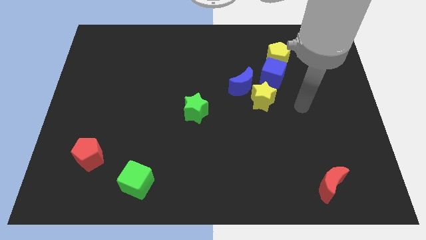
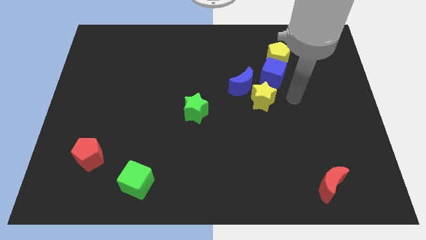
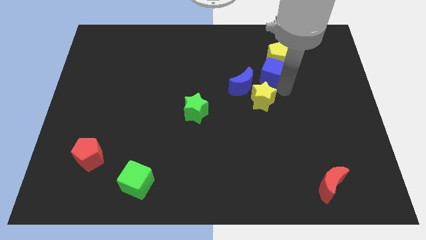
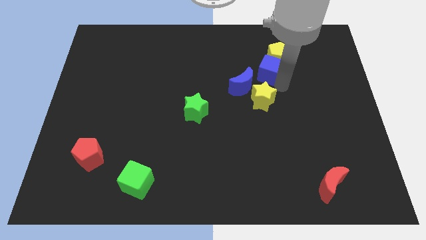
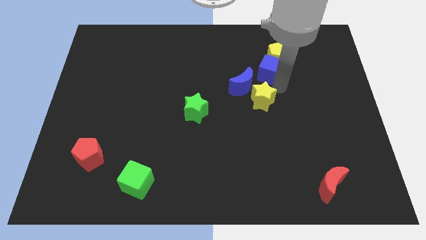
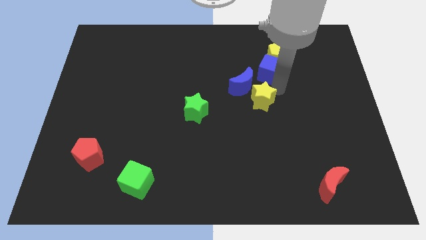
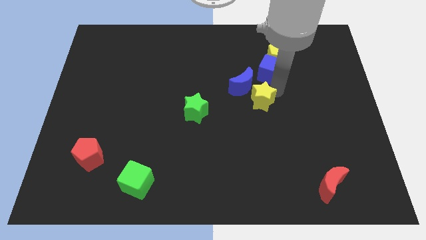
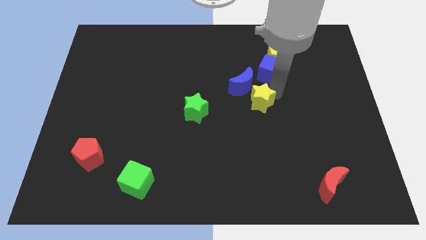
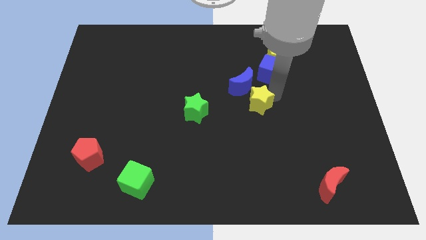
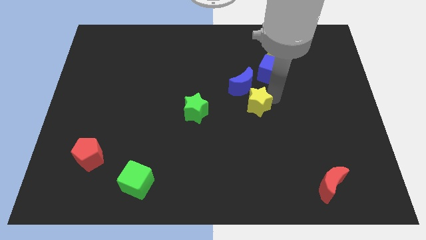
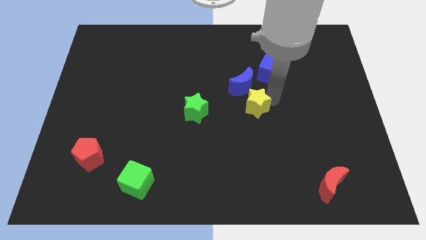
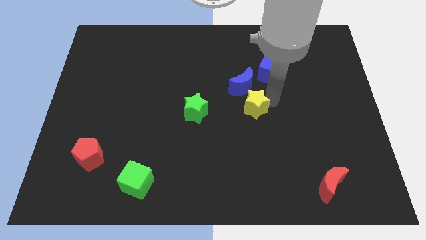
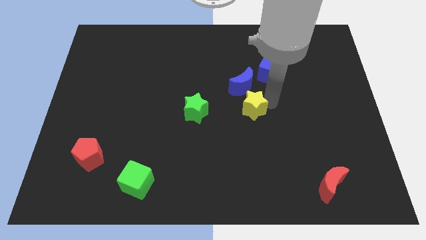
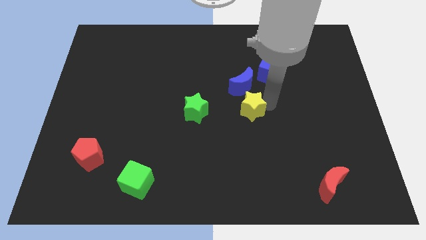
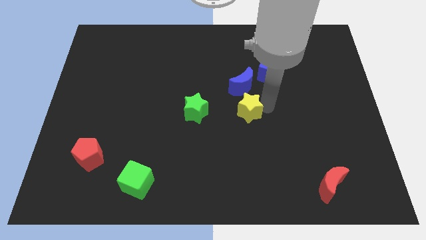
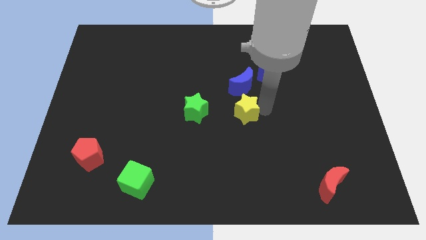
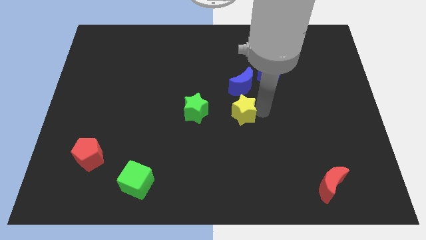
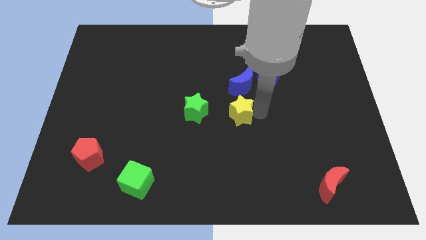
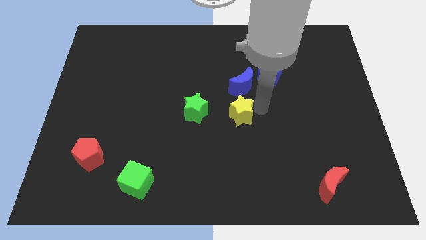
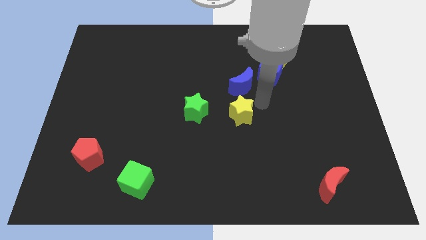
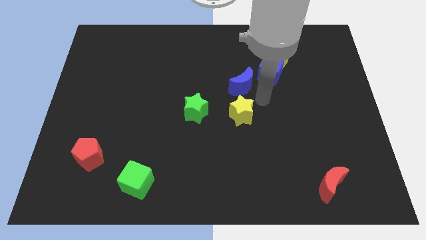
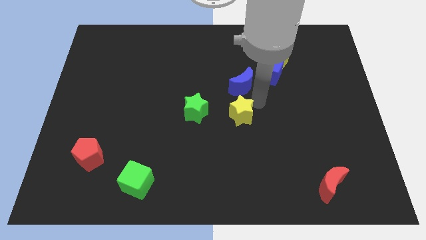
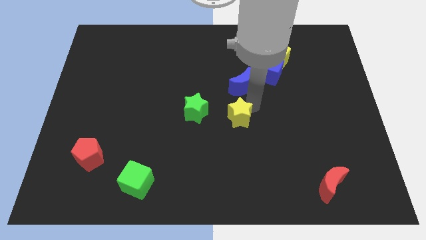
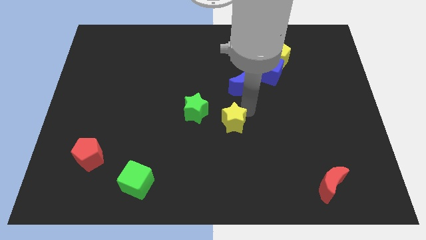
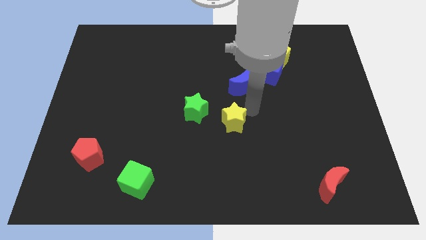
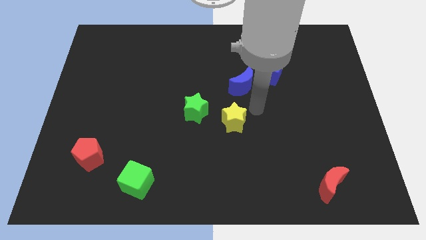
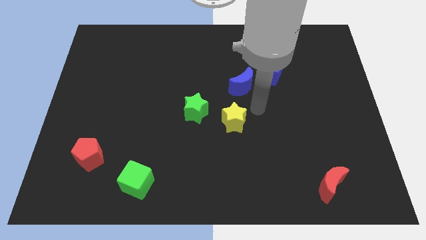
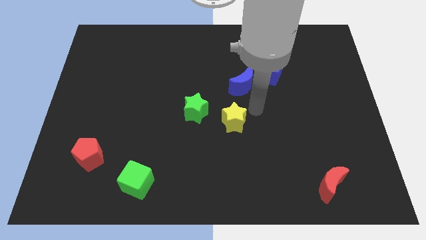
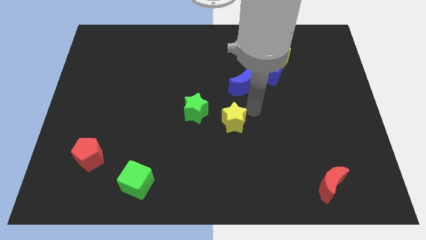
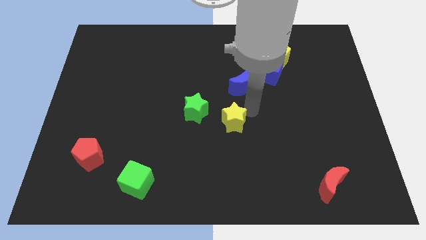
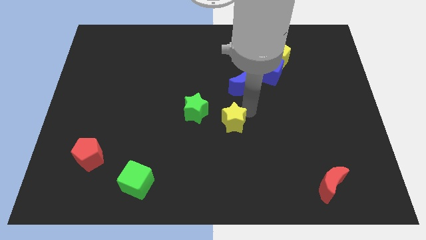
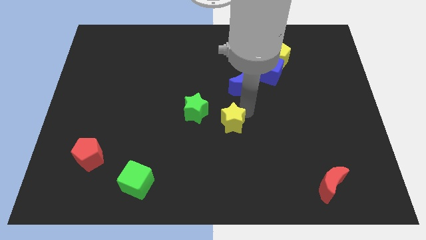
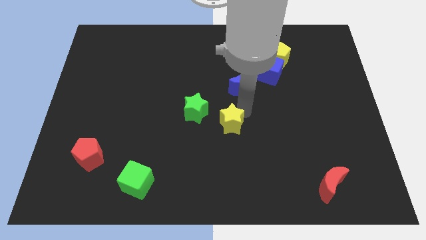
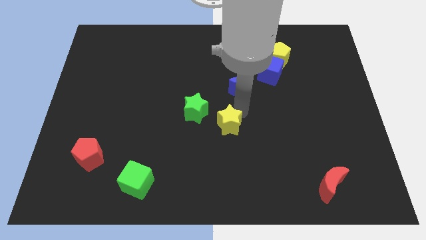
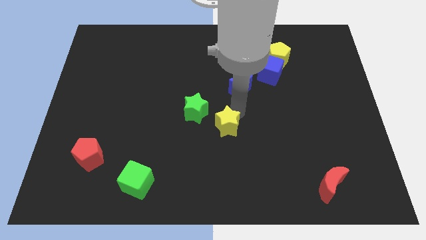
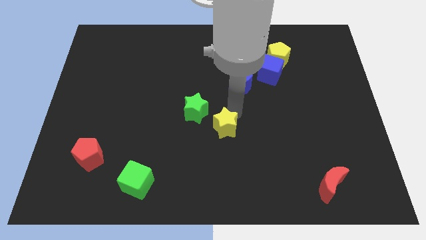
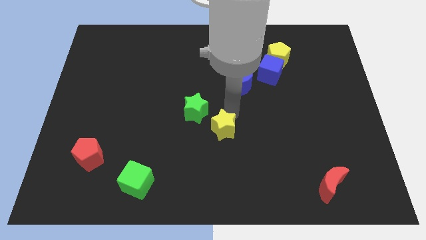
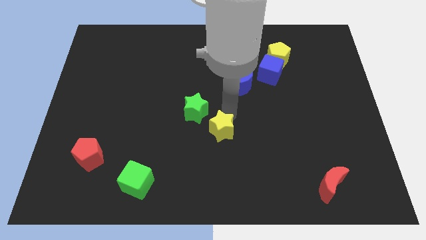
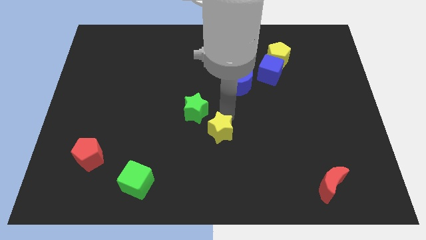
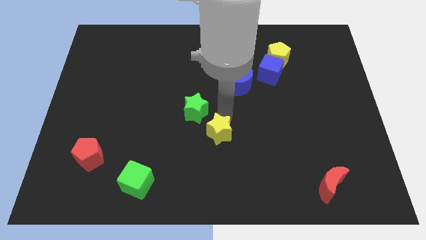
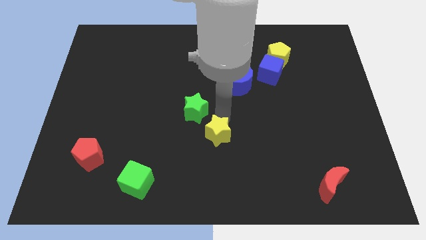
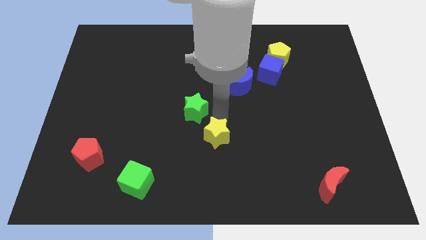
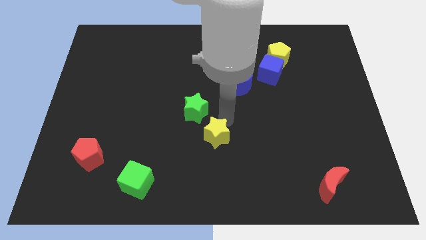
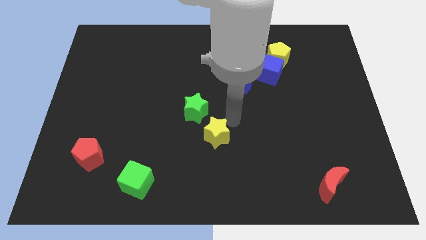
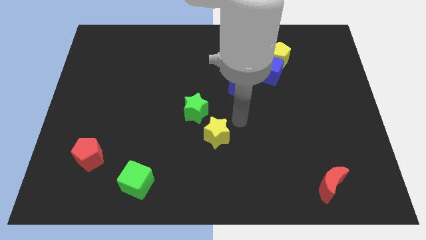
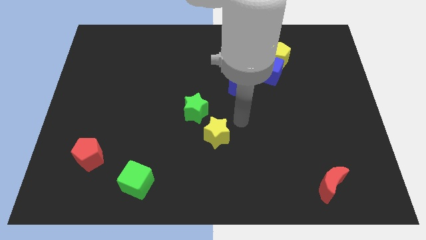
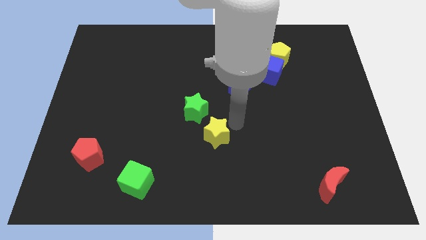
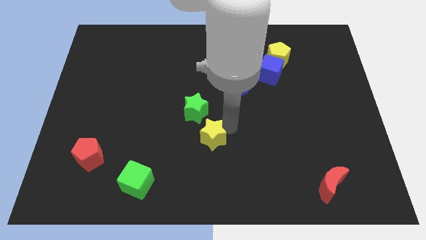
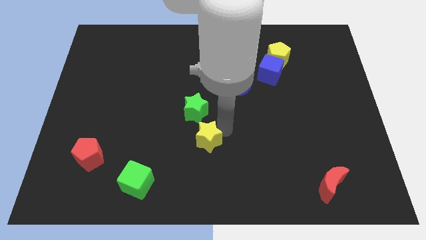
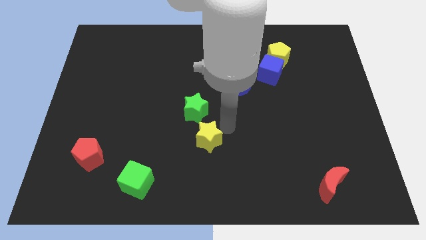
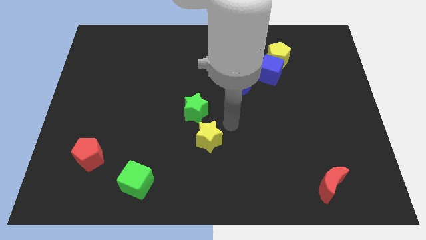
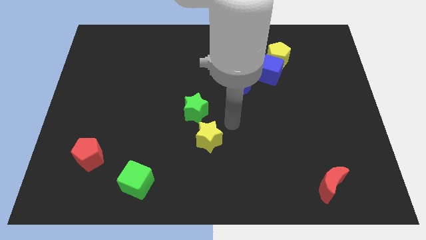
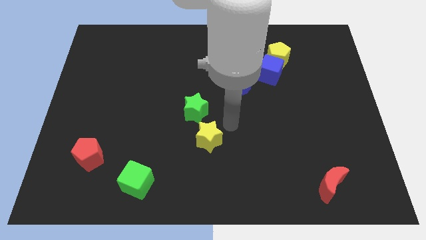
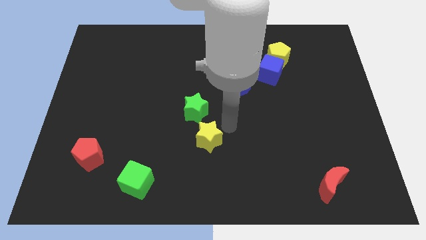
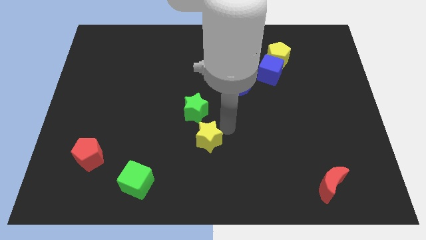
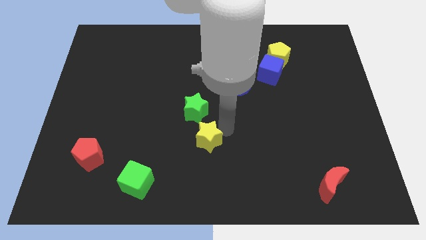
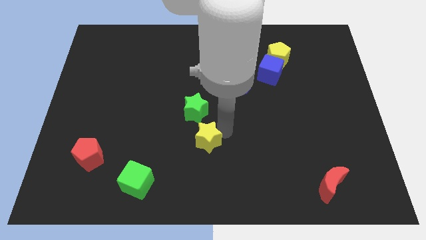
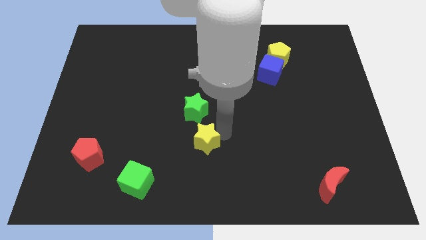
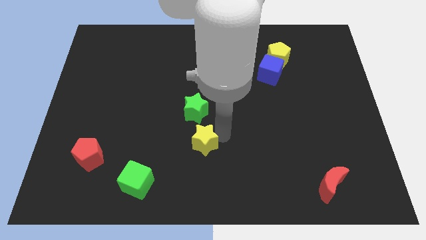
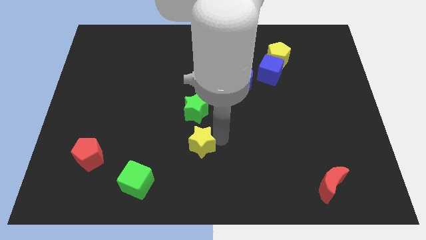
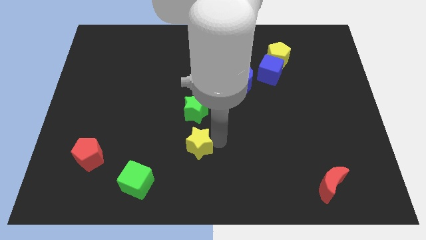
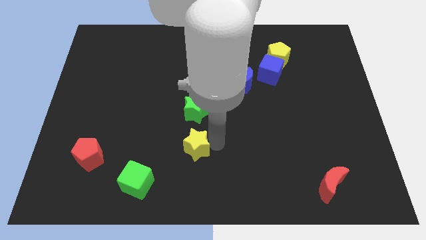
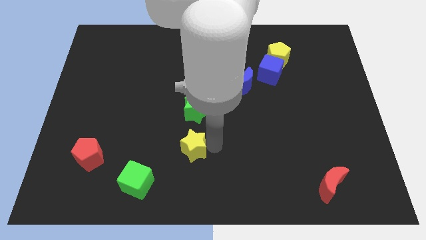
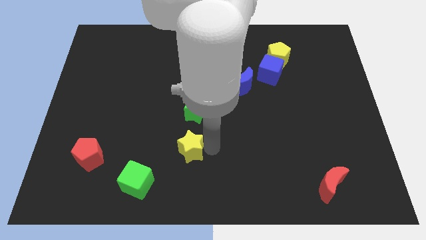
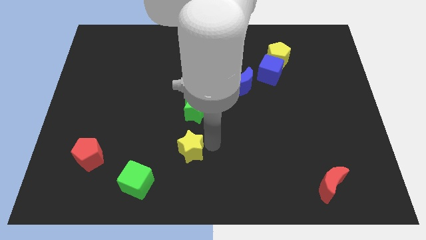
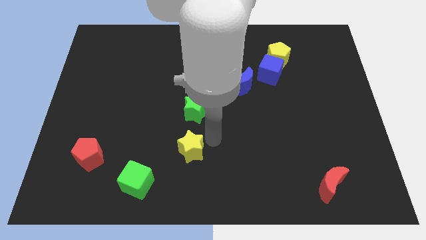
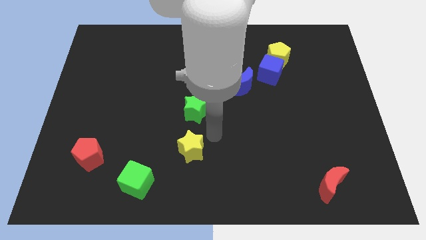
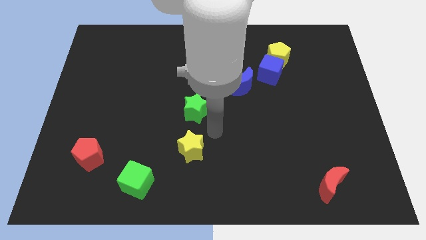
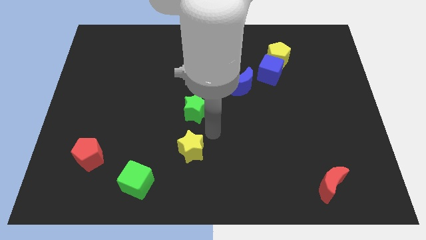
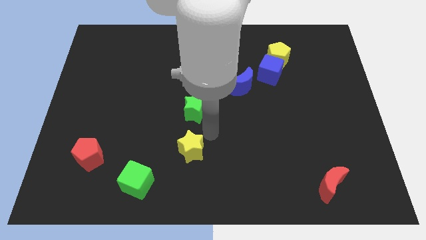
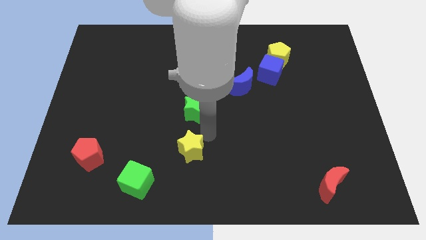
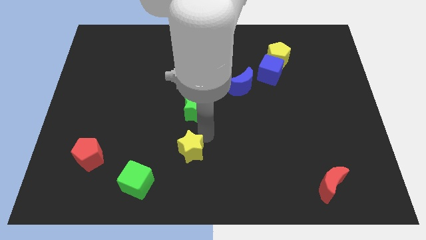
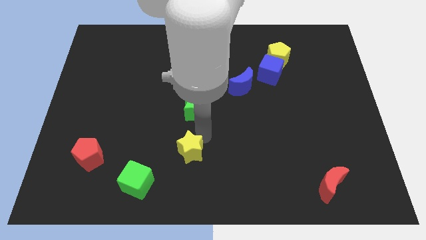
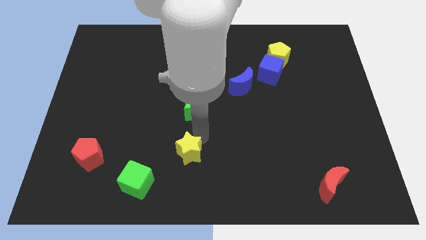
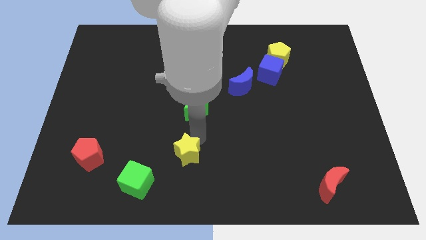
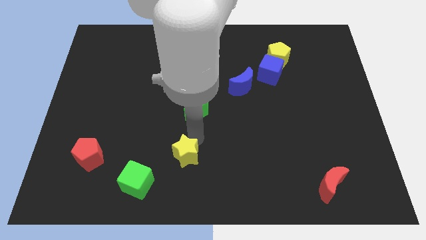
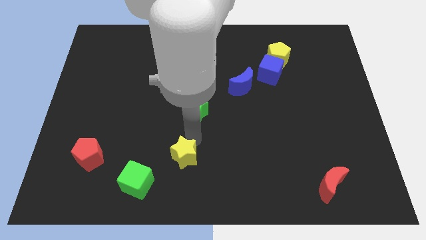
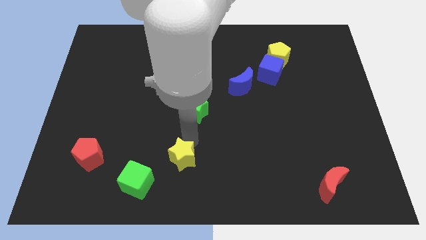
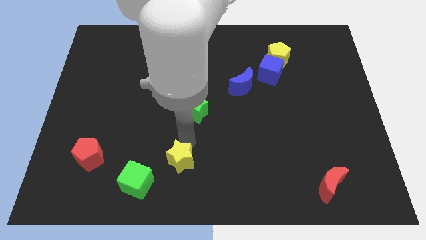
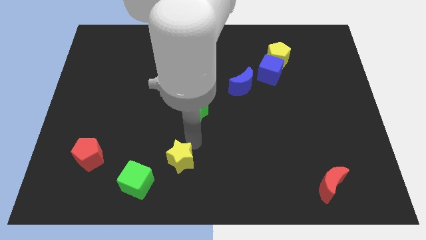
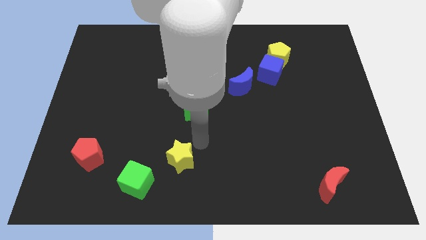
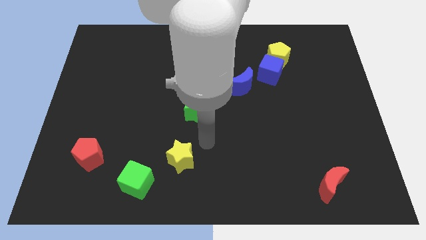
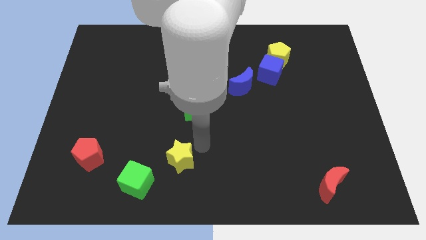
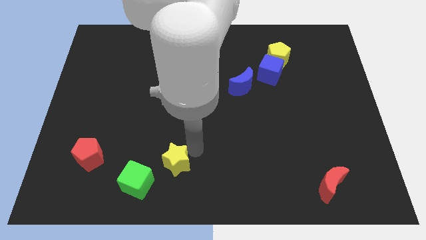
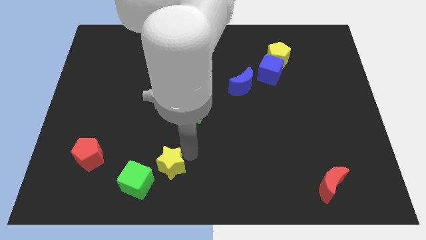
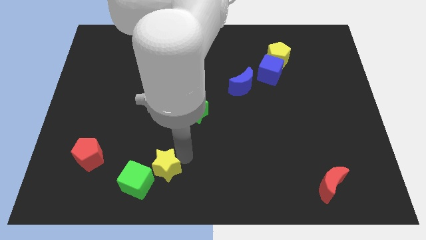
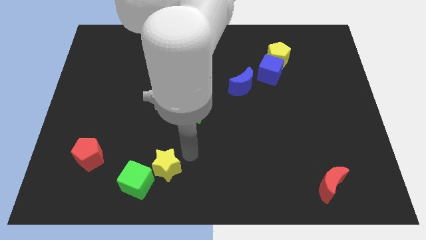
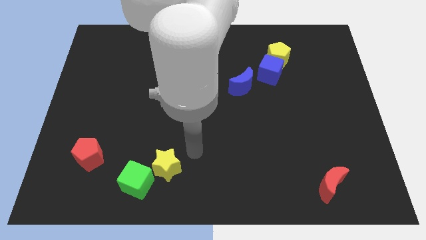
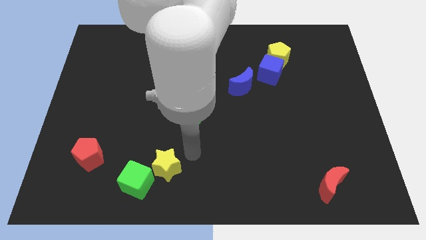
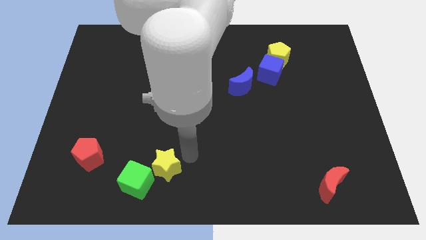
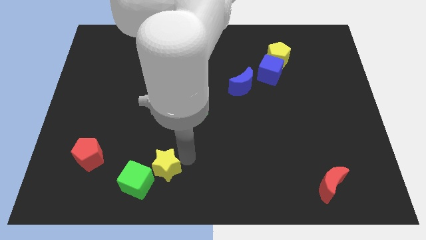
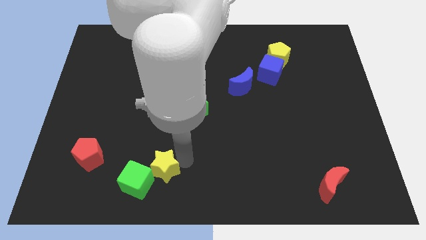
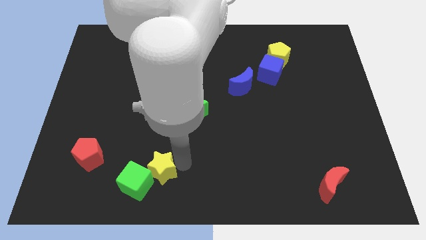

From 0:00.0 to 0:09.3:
slide the yellow star next to the green cube
